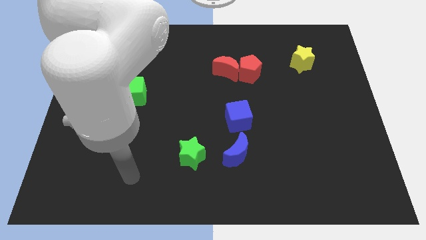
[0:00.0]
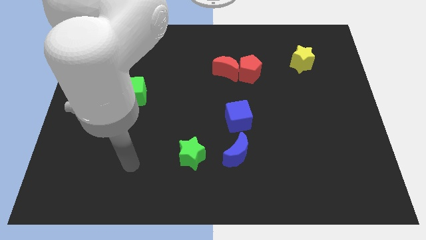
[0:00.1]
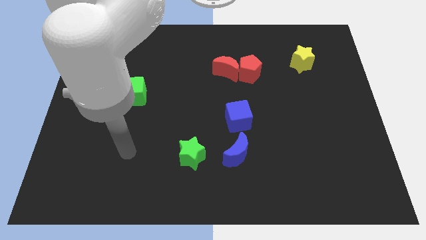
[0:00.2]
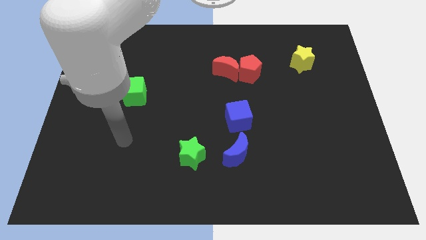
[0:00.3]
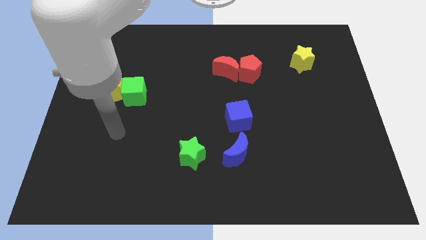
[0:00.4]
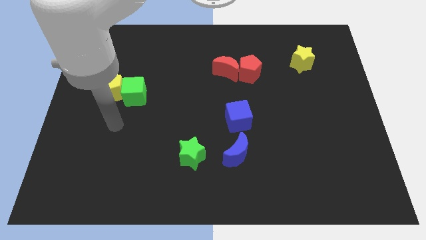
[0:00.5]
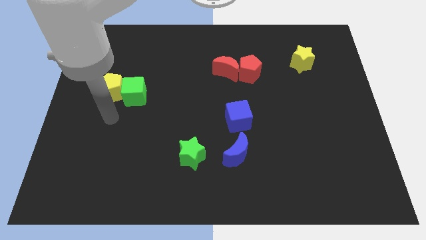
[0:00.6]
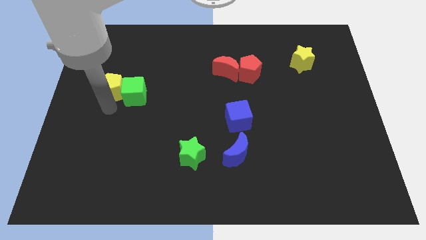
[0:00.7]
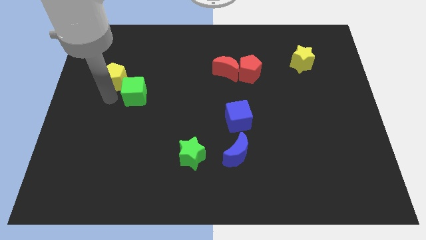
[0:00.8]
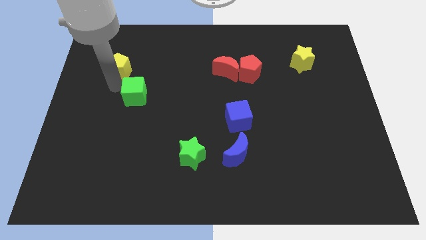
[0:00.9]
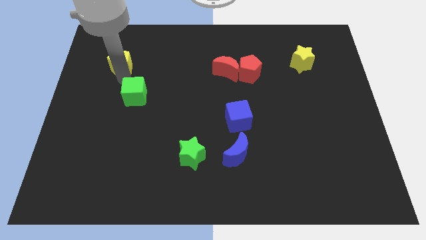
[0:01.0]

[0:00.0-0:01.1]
separate the green cube from the yellow pentagon

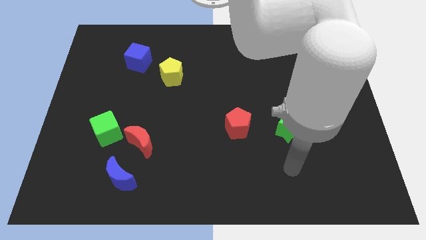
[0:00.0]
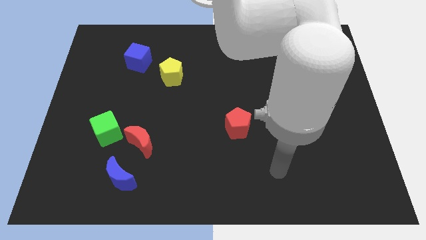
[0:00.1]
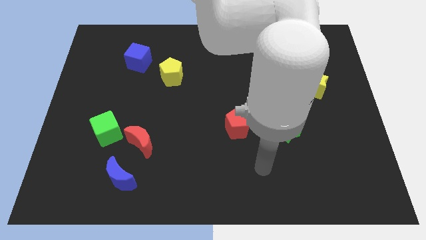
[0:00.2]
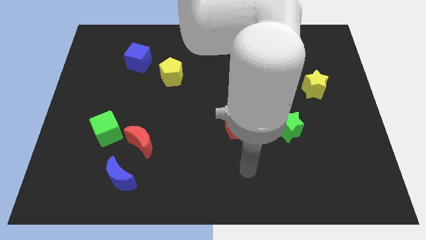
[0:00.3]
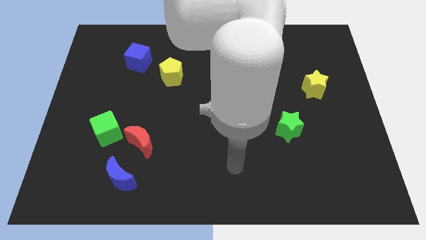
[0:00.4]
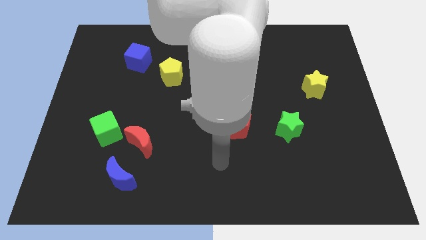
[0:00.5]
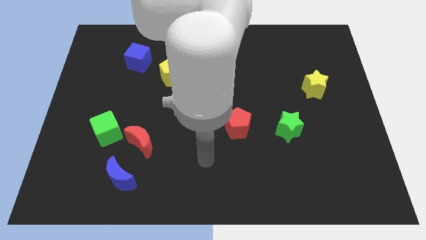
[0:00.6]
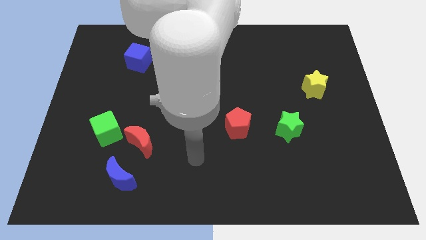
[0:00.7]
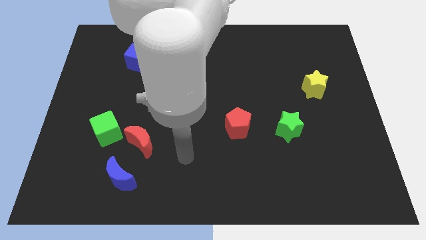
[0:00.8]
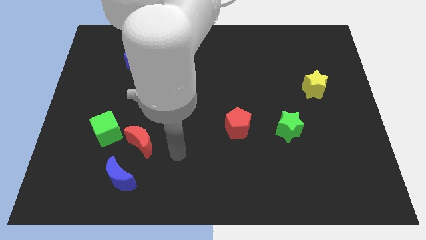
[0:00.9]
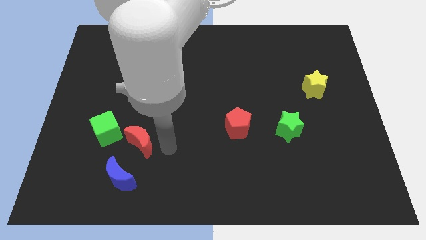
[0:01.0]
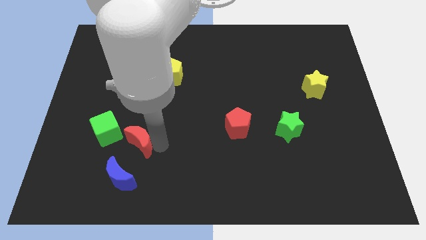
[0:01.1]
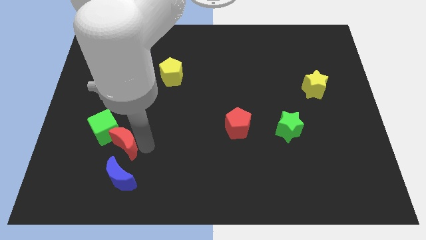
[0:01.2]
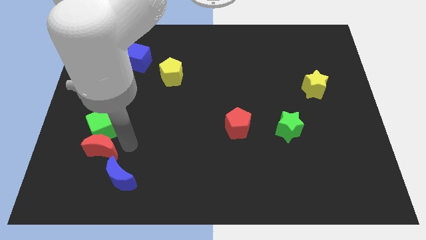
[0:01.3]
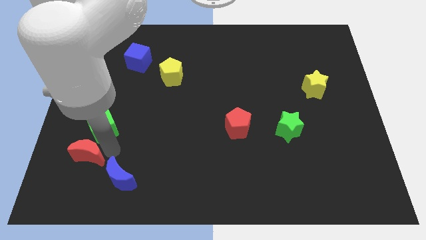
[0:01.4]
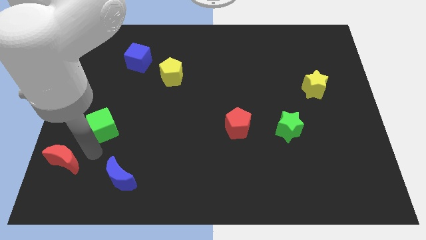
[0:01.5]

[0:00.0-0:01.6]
separate the green cube from the red moon

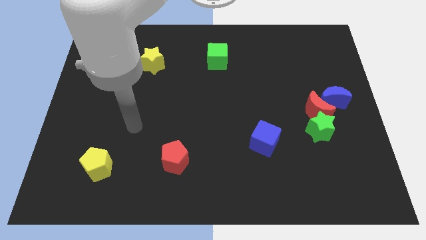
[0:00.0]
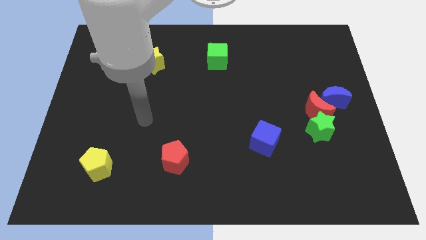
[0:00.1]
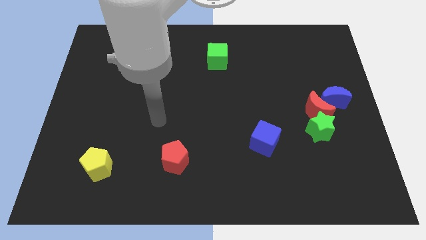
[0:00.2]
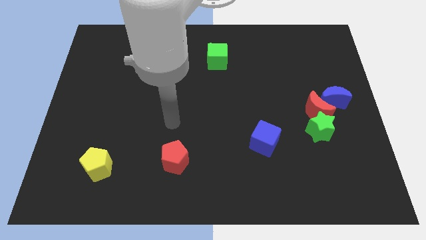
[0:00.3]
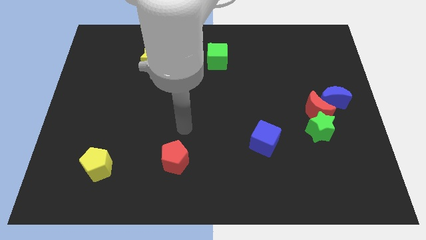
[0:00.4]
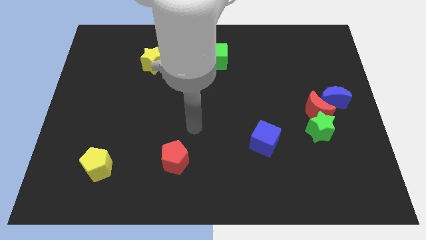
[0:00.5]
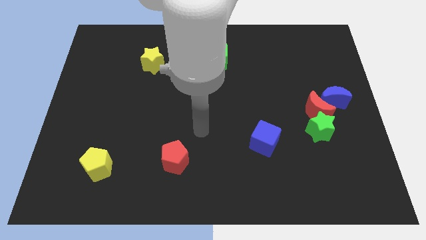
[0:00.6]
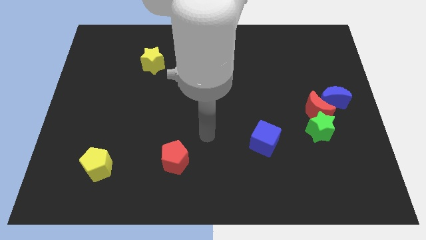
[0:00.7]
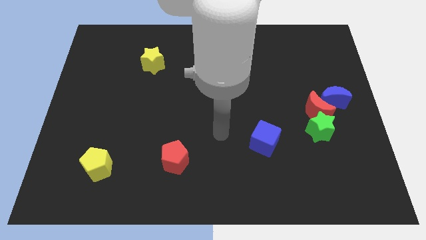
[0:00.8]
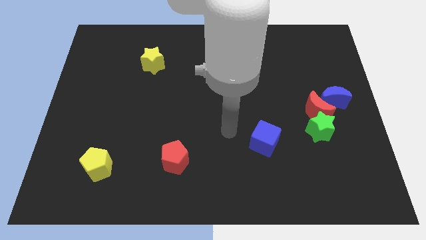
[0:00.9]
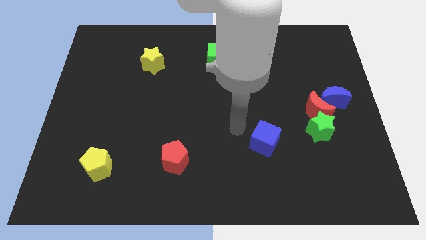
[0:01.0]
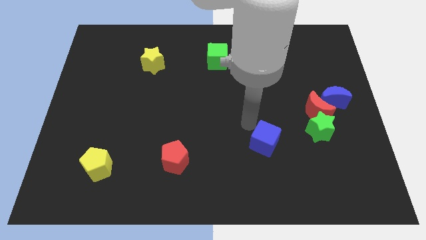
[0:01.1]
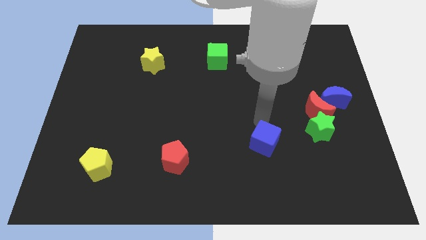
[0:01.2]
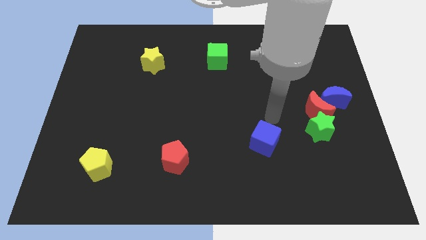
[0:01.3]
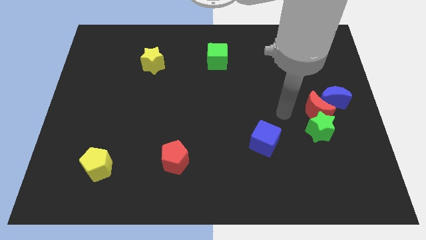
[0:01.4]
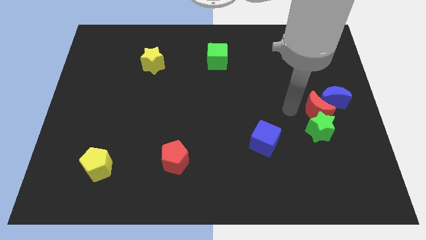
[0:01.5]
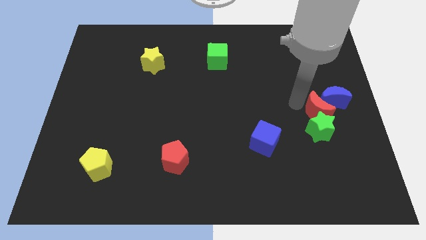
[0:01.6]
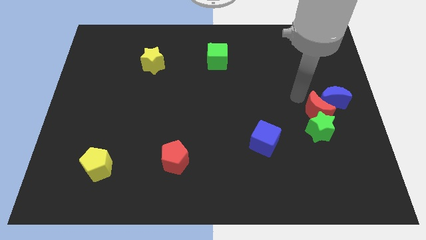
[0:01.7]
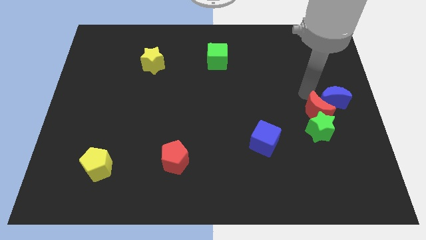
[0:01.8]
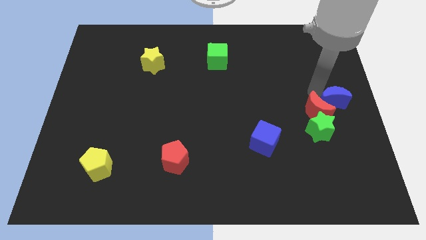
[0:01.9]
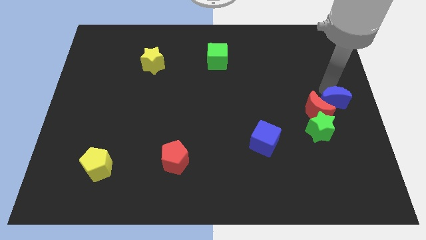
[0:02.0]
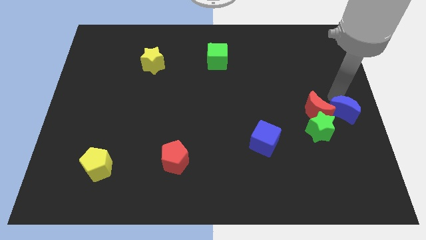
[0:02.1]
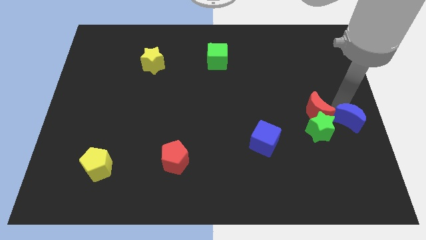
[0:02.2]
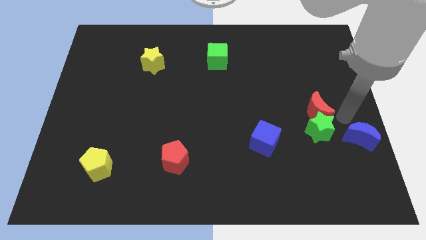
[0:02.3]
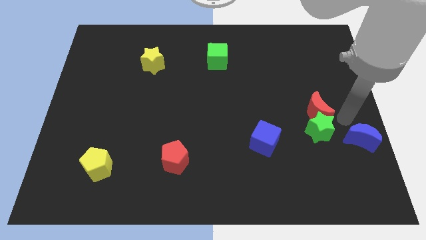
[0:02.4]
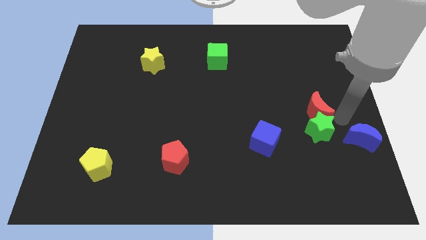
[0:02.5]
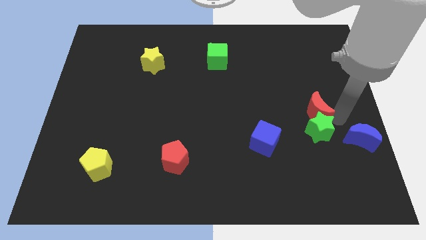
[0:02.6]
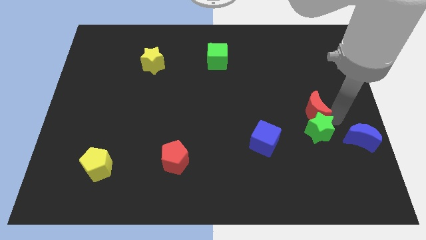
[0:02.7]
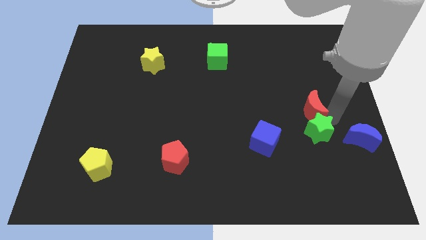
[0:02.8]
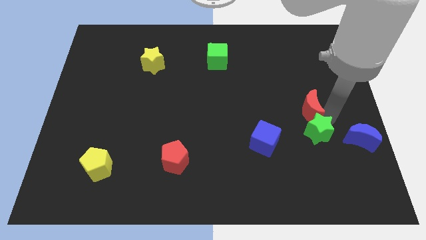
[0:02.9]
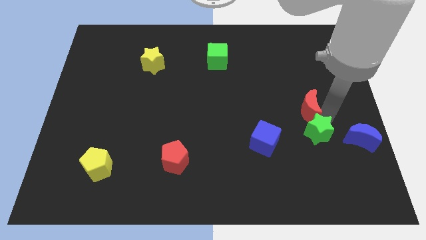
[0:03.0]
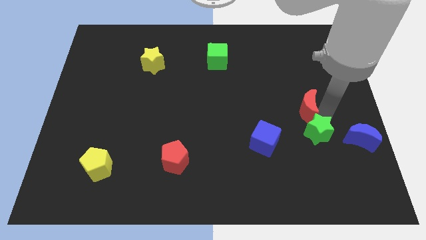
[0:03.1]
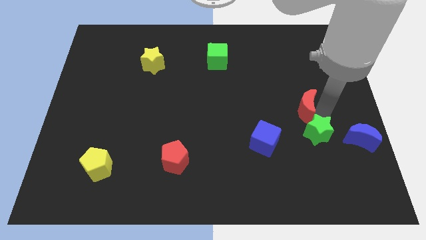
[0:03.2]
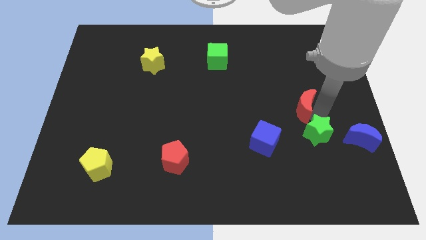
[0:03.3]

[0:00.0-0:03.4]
pull the red moon apart from the green star and blue moon

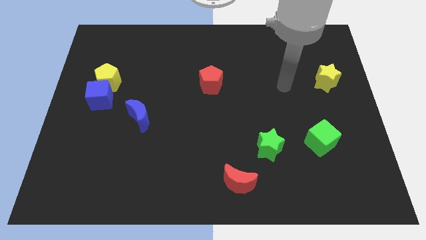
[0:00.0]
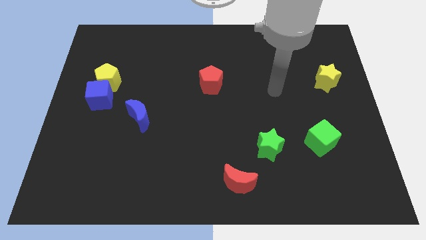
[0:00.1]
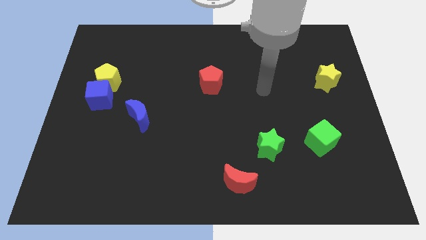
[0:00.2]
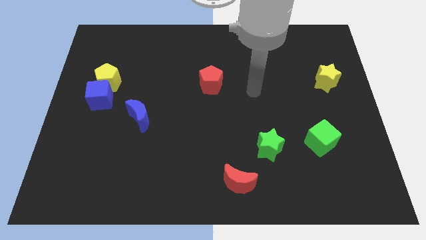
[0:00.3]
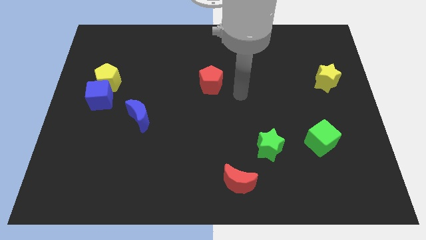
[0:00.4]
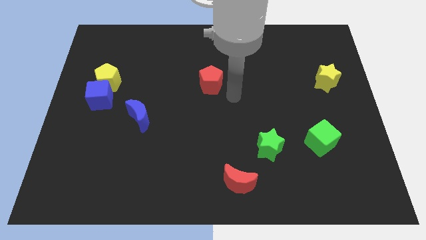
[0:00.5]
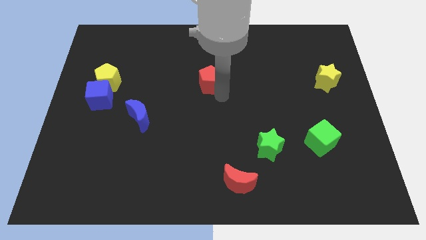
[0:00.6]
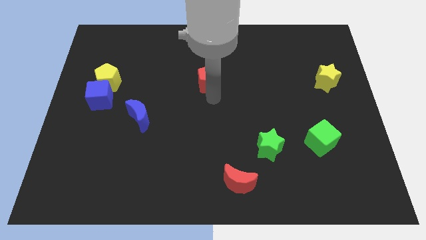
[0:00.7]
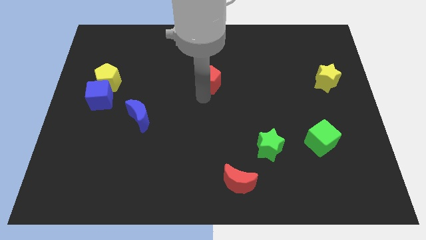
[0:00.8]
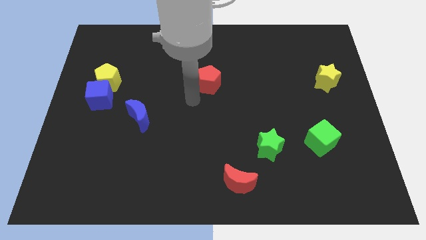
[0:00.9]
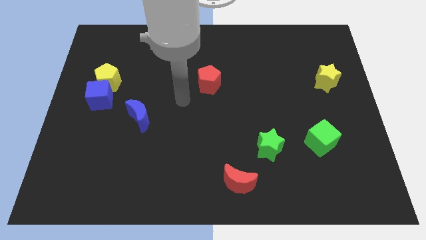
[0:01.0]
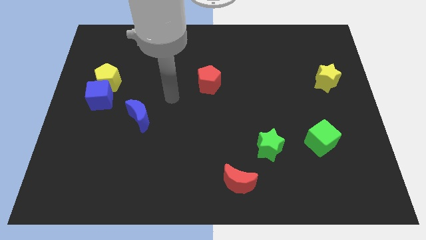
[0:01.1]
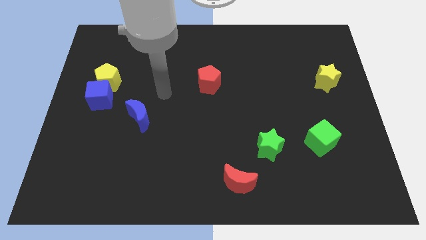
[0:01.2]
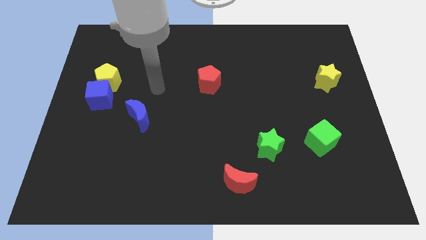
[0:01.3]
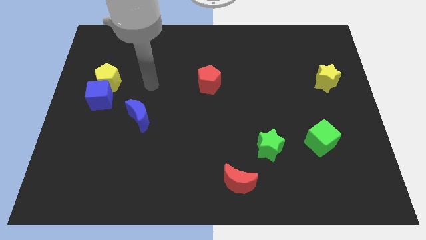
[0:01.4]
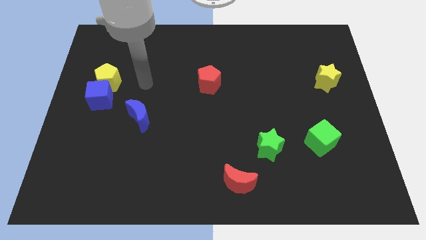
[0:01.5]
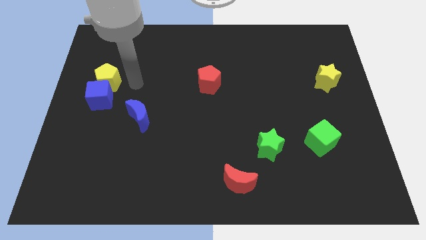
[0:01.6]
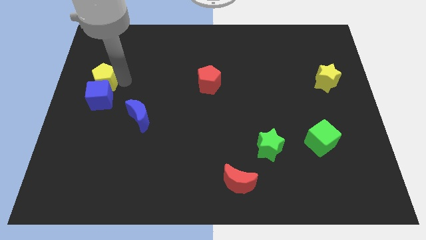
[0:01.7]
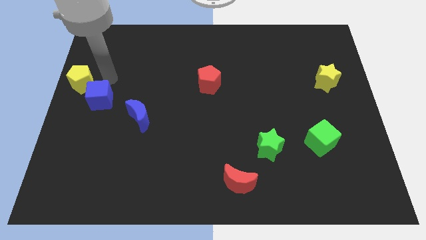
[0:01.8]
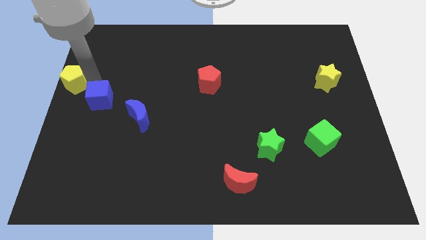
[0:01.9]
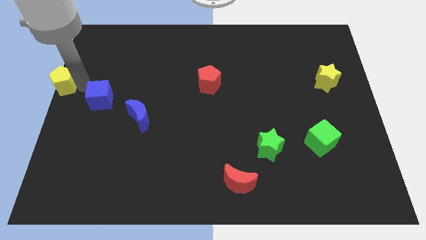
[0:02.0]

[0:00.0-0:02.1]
move the blue cube away from the yellow pentagon

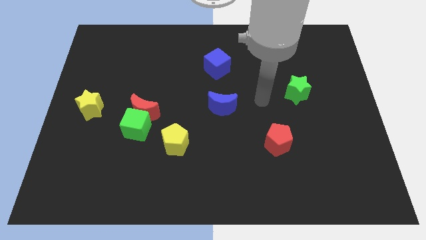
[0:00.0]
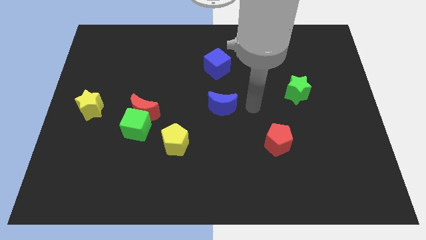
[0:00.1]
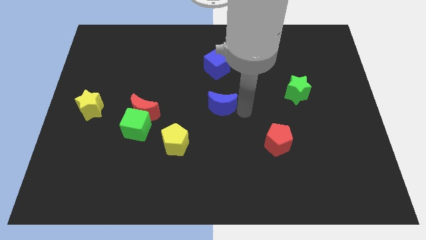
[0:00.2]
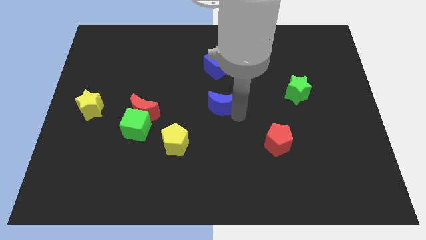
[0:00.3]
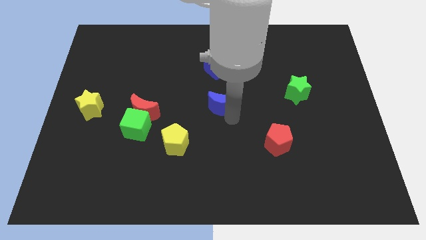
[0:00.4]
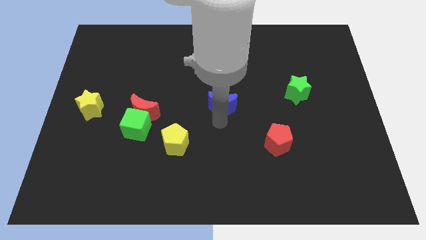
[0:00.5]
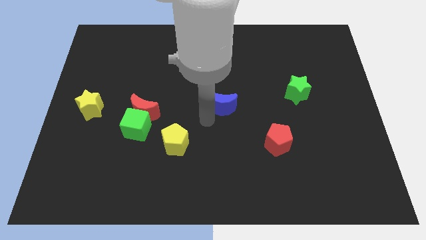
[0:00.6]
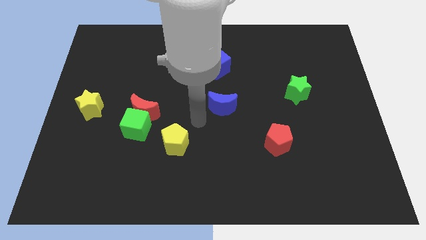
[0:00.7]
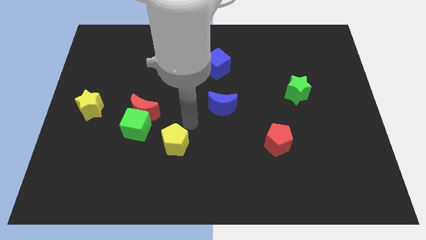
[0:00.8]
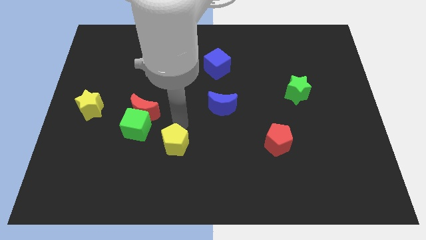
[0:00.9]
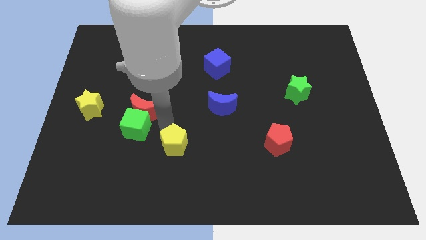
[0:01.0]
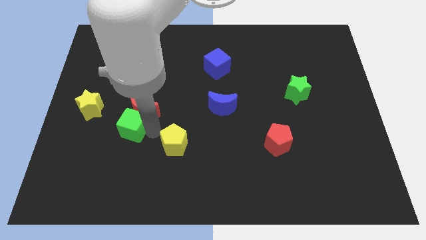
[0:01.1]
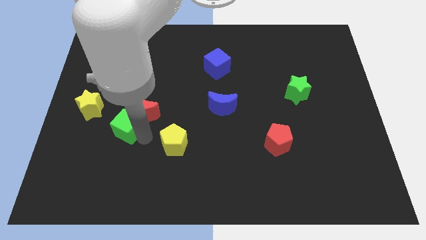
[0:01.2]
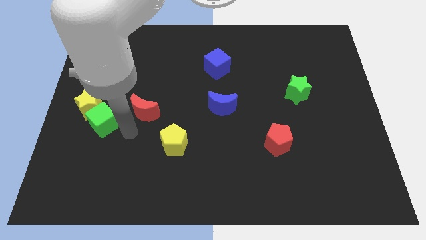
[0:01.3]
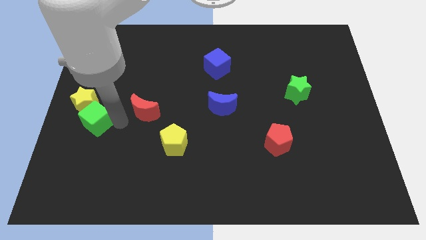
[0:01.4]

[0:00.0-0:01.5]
separate the red moon from the green cube
